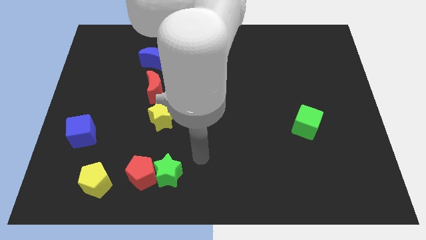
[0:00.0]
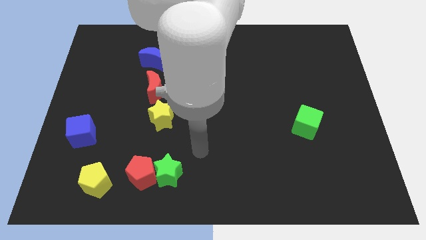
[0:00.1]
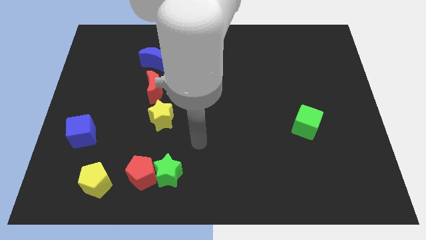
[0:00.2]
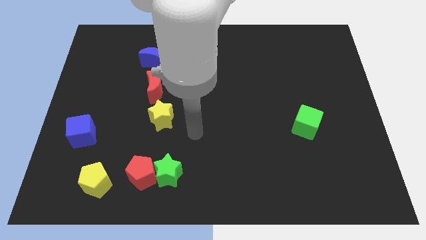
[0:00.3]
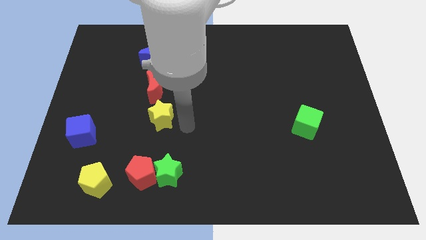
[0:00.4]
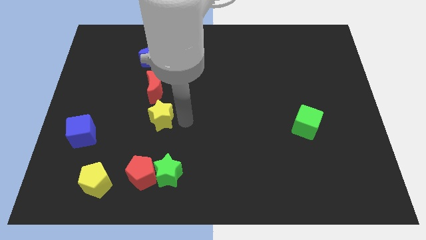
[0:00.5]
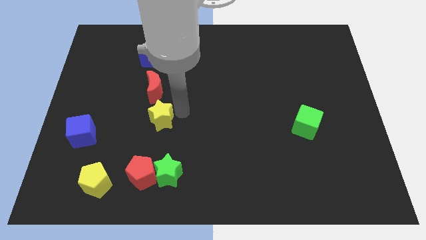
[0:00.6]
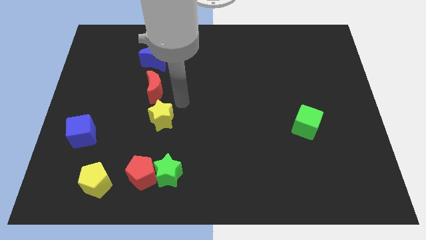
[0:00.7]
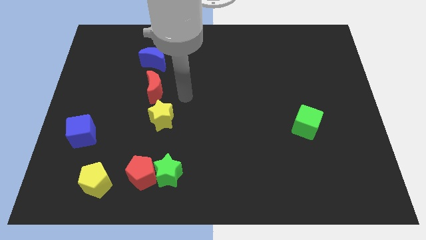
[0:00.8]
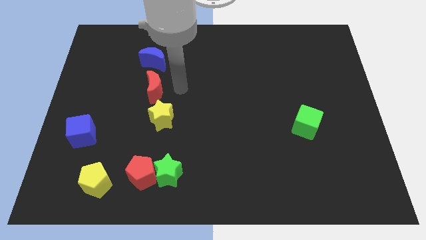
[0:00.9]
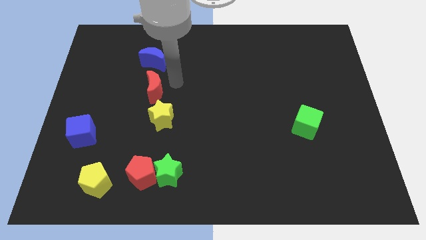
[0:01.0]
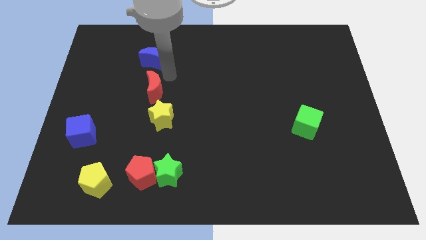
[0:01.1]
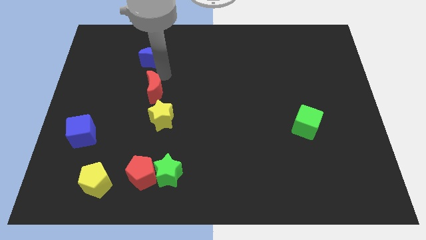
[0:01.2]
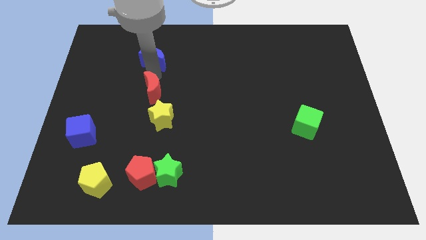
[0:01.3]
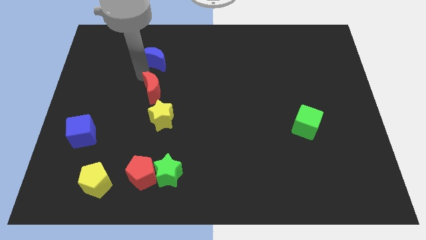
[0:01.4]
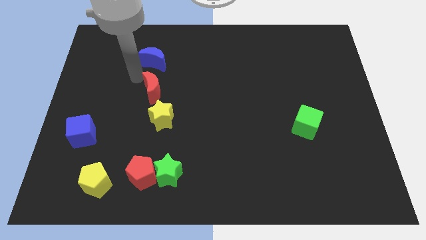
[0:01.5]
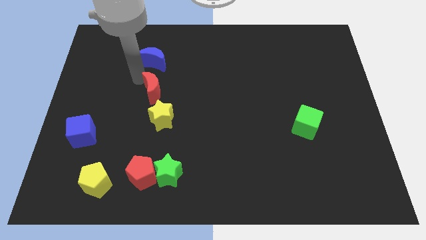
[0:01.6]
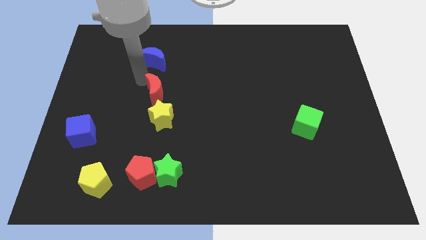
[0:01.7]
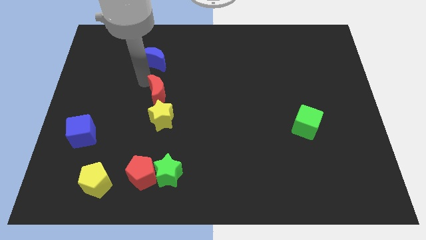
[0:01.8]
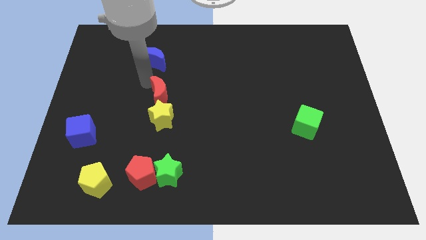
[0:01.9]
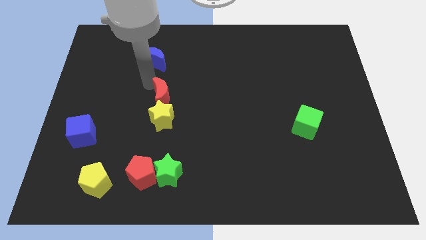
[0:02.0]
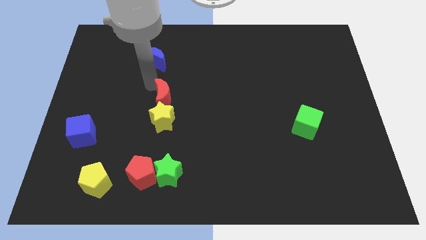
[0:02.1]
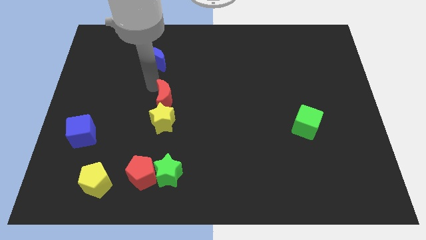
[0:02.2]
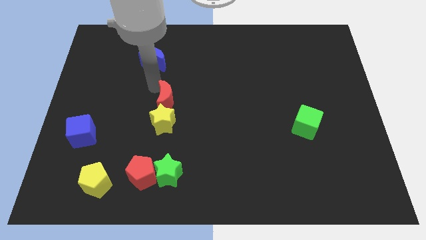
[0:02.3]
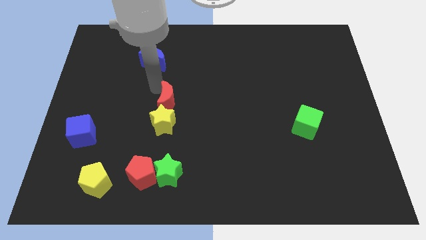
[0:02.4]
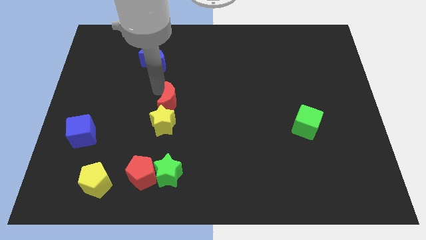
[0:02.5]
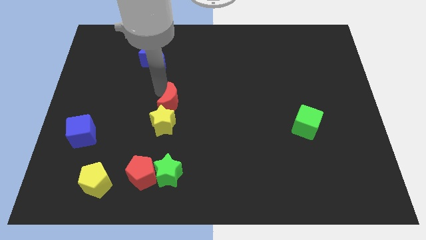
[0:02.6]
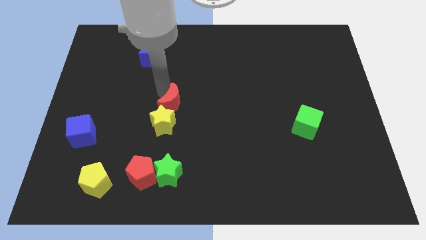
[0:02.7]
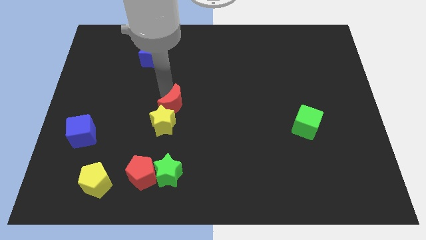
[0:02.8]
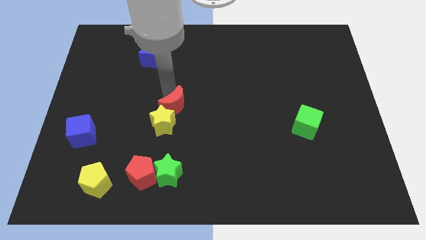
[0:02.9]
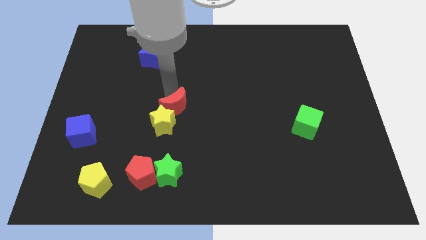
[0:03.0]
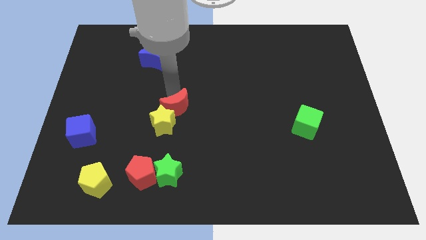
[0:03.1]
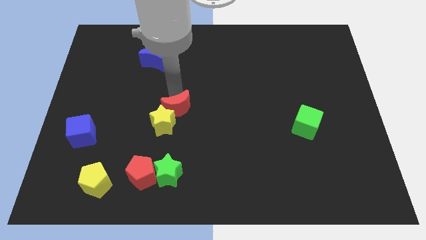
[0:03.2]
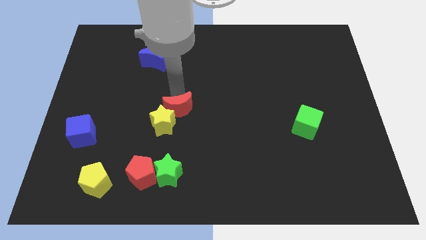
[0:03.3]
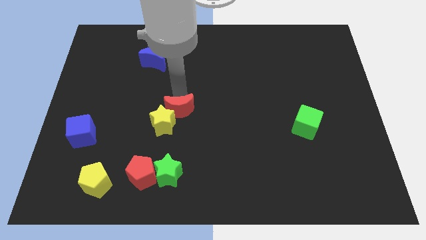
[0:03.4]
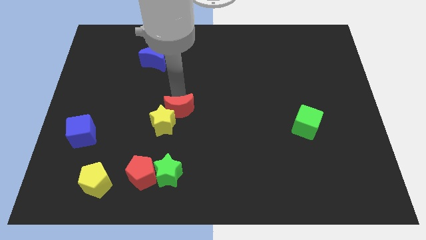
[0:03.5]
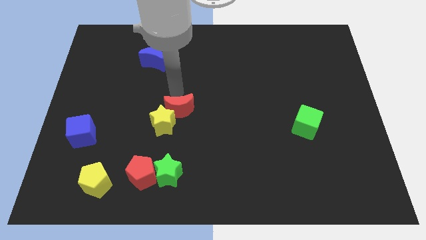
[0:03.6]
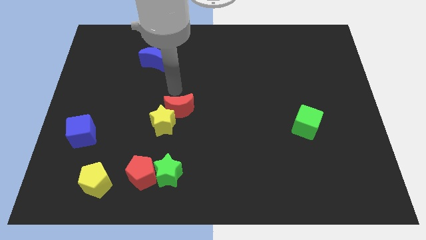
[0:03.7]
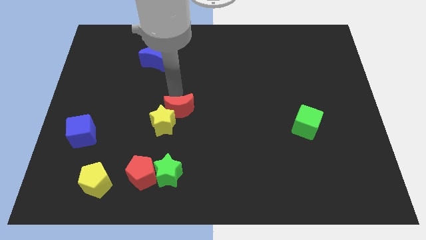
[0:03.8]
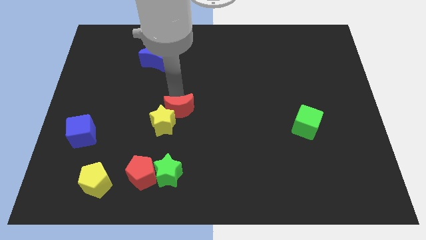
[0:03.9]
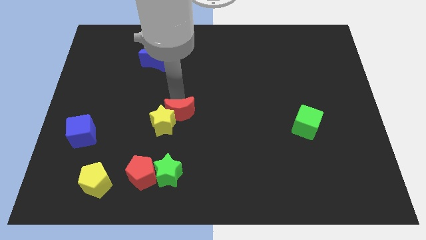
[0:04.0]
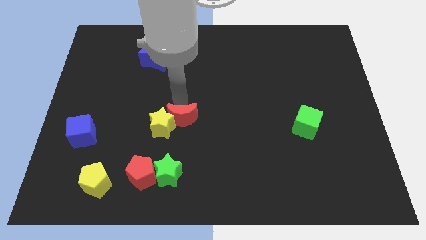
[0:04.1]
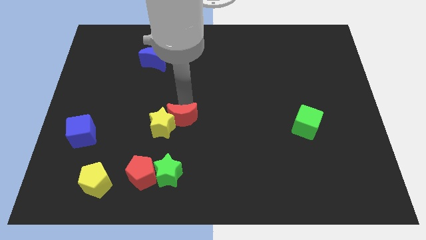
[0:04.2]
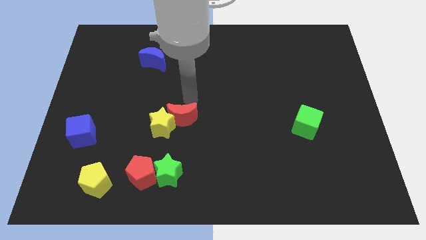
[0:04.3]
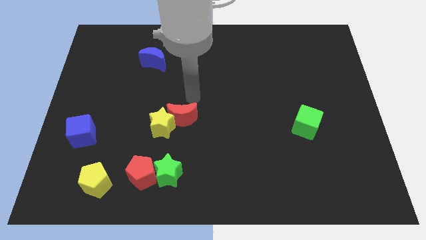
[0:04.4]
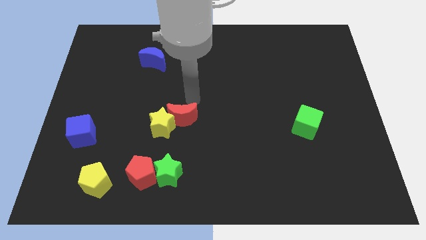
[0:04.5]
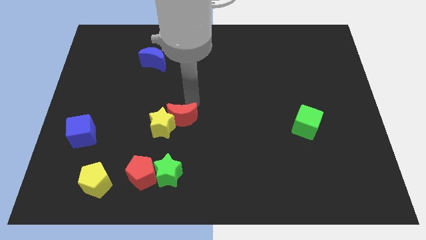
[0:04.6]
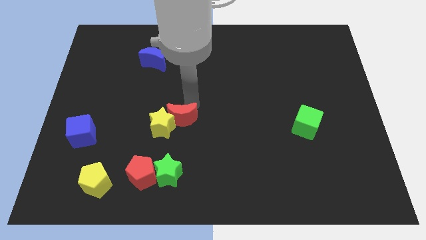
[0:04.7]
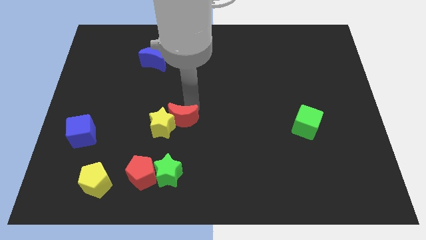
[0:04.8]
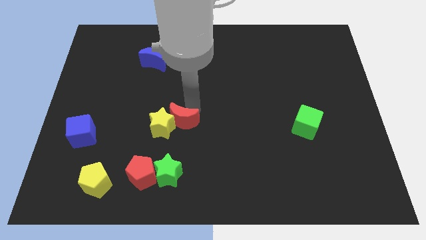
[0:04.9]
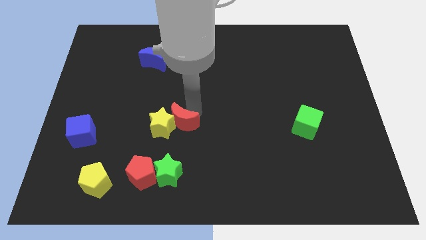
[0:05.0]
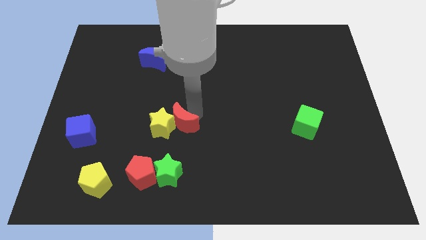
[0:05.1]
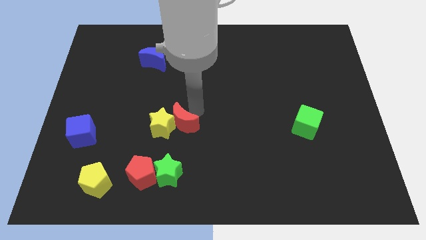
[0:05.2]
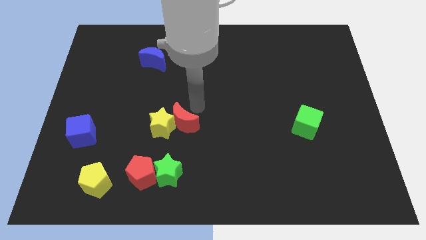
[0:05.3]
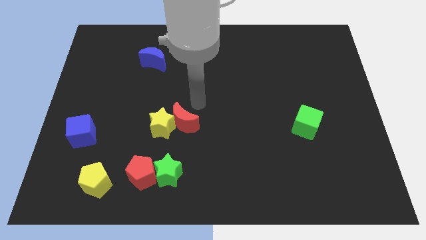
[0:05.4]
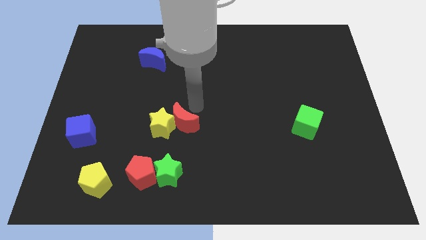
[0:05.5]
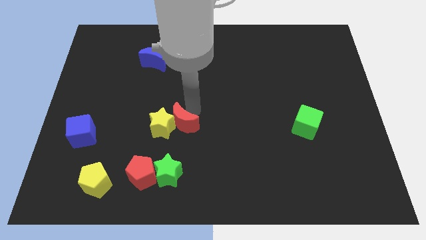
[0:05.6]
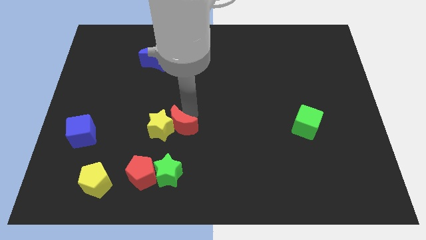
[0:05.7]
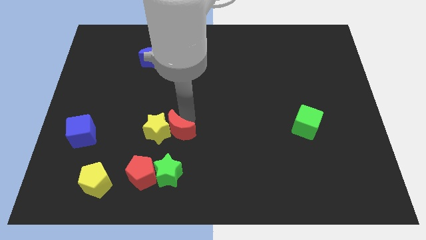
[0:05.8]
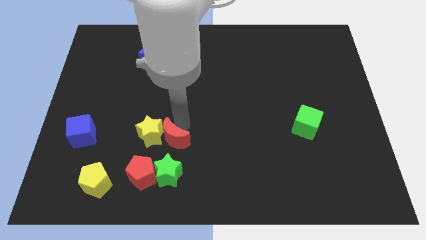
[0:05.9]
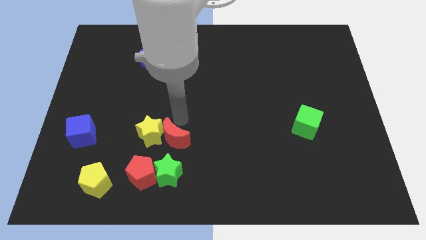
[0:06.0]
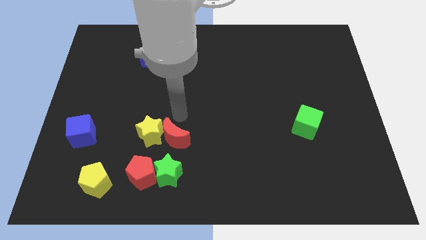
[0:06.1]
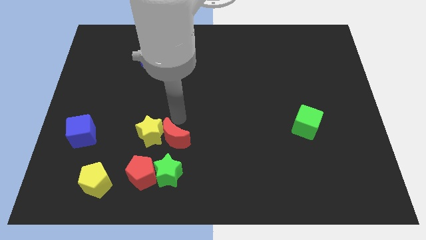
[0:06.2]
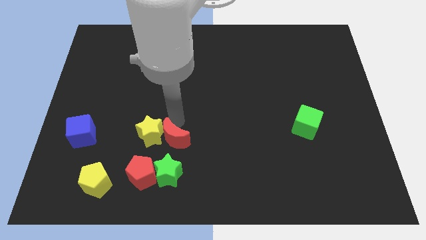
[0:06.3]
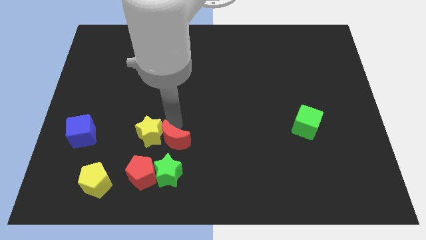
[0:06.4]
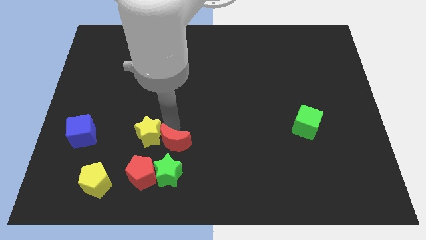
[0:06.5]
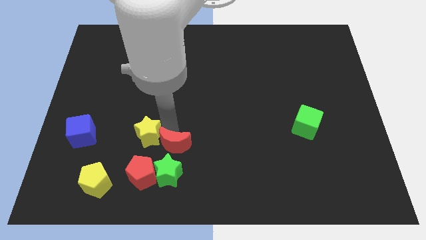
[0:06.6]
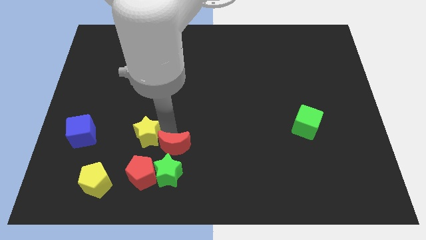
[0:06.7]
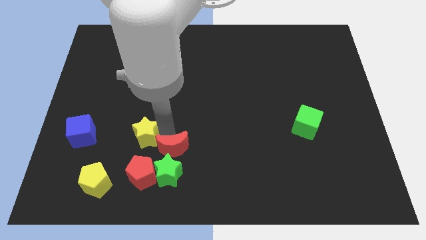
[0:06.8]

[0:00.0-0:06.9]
put the red moon next to the green star

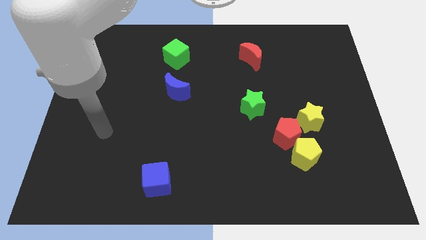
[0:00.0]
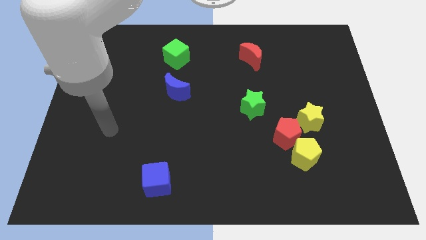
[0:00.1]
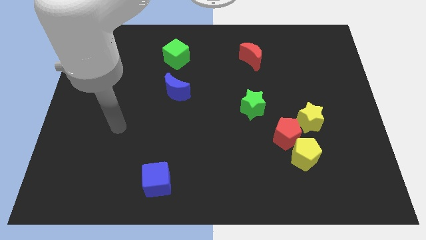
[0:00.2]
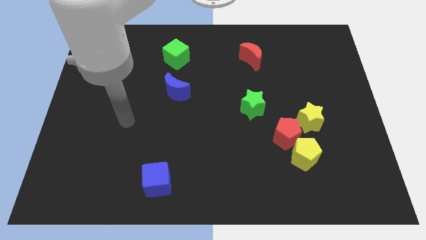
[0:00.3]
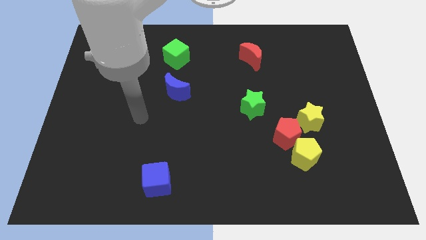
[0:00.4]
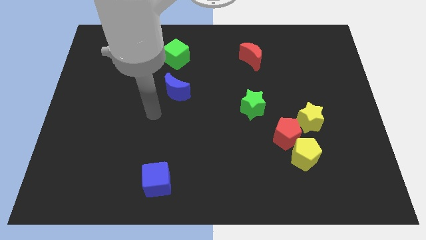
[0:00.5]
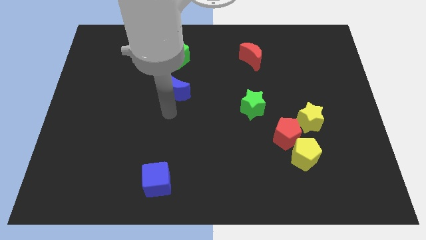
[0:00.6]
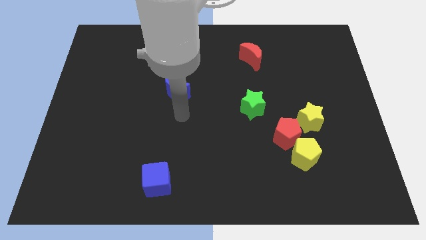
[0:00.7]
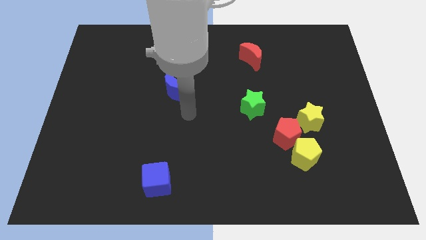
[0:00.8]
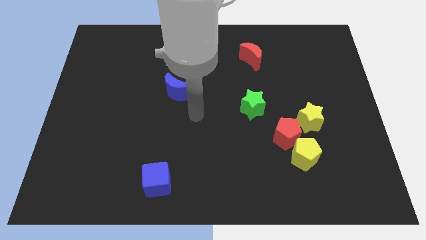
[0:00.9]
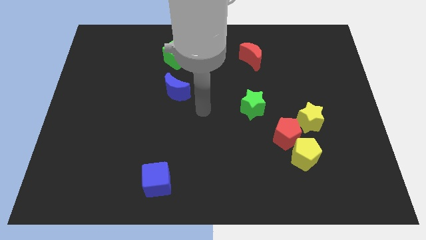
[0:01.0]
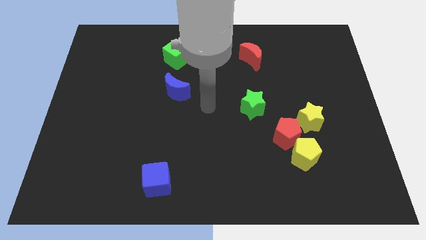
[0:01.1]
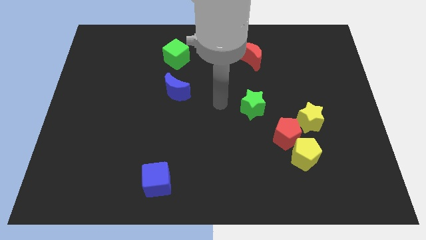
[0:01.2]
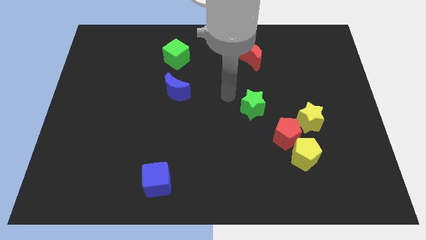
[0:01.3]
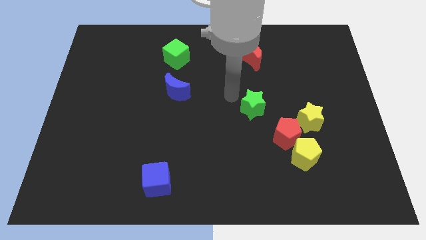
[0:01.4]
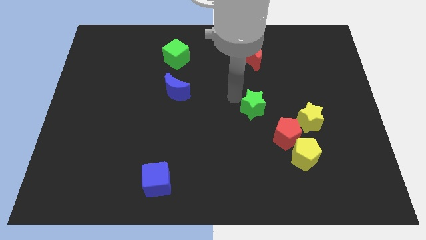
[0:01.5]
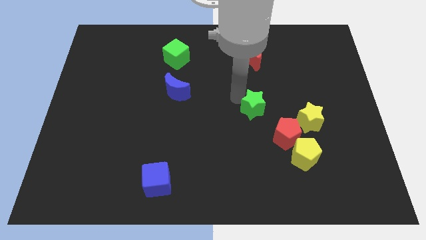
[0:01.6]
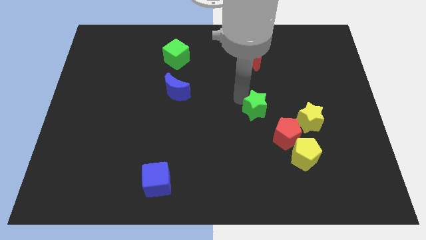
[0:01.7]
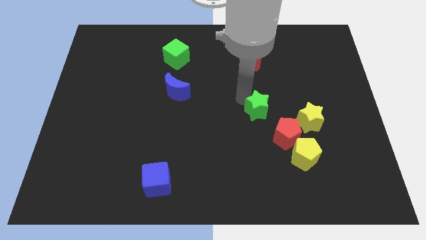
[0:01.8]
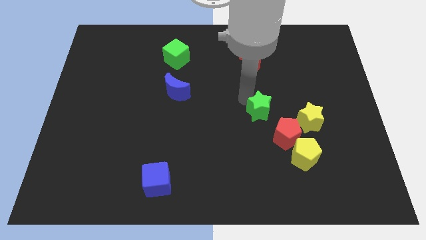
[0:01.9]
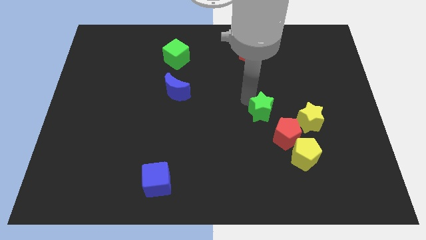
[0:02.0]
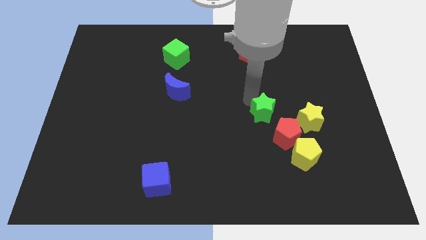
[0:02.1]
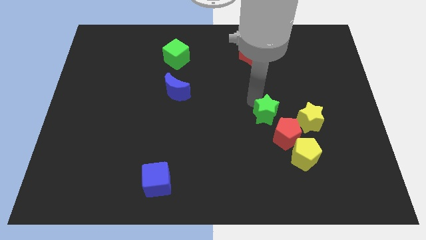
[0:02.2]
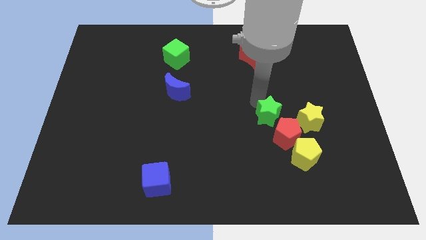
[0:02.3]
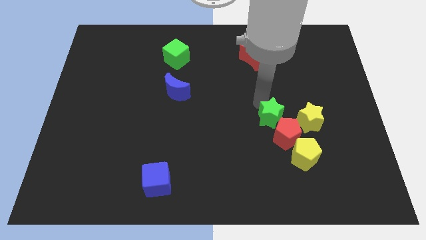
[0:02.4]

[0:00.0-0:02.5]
slide the green star towards the red pentagon
